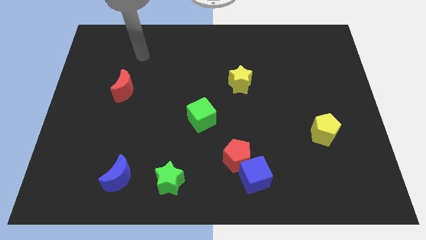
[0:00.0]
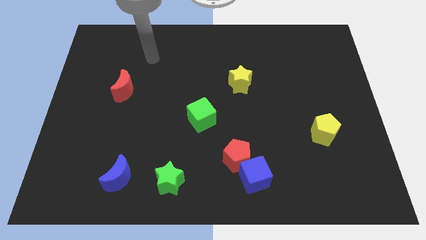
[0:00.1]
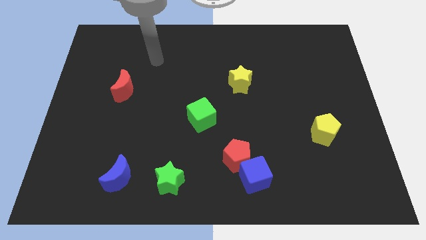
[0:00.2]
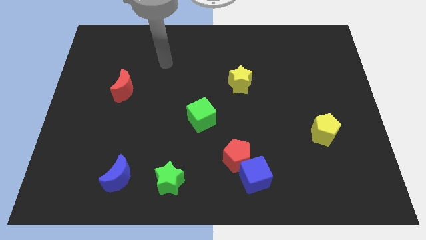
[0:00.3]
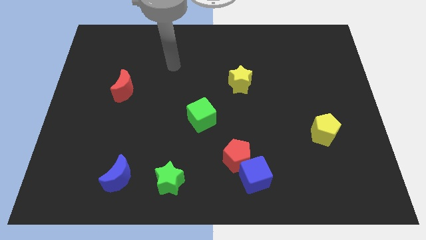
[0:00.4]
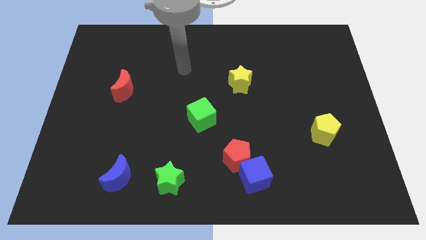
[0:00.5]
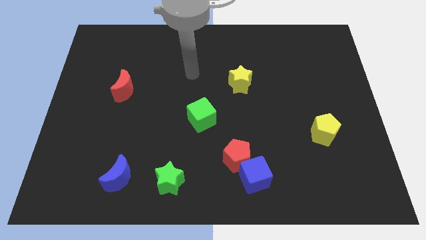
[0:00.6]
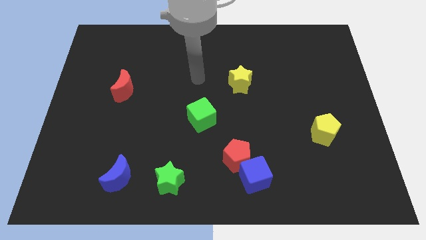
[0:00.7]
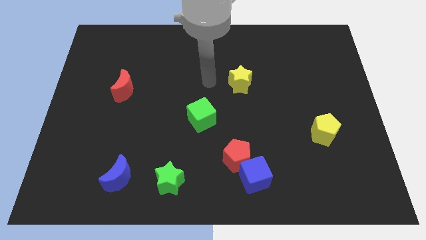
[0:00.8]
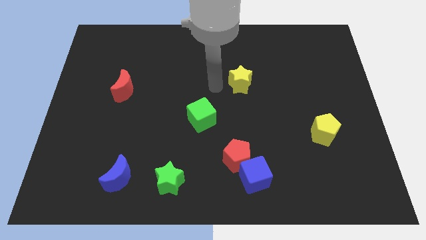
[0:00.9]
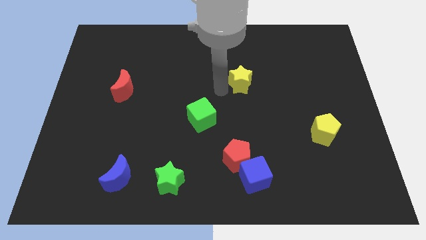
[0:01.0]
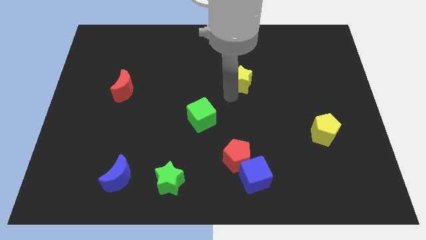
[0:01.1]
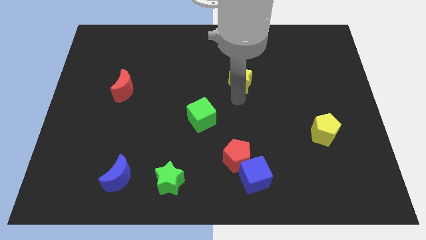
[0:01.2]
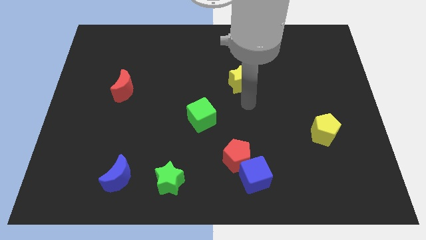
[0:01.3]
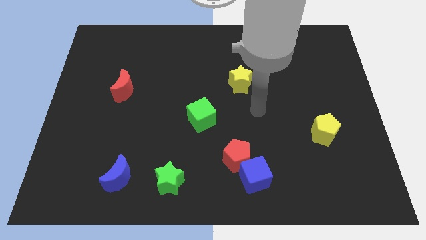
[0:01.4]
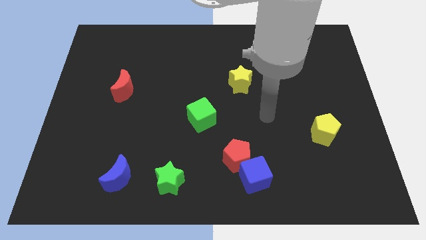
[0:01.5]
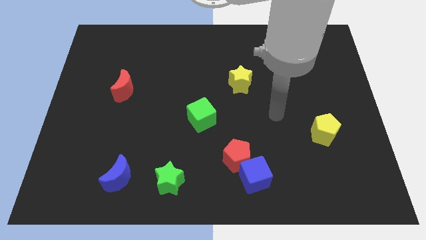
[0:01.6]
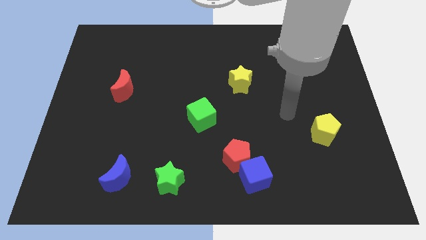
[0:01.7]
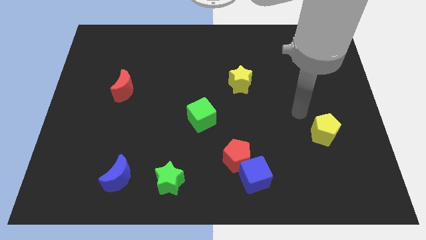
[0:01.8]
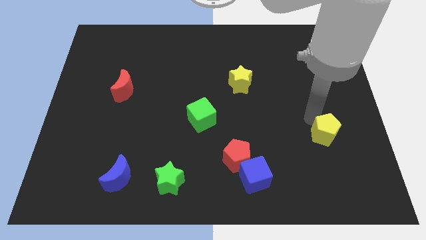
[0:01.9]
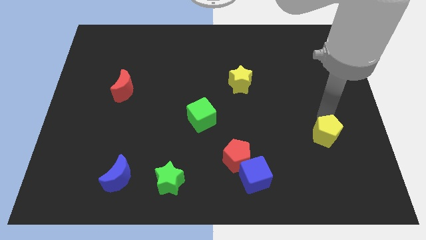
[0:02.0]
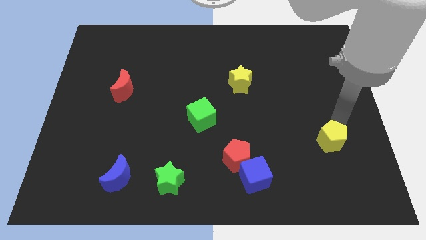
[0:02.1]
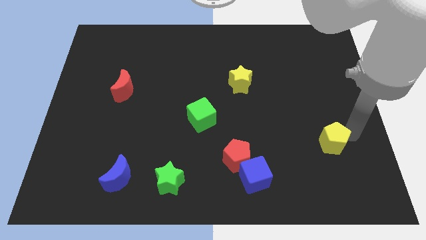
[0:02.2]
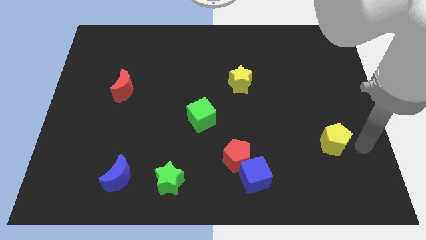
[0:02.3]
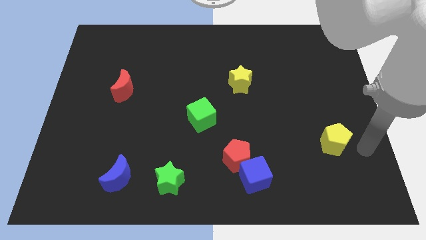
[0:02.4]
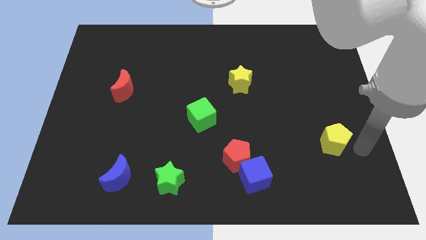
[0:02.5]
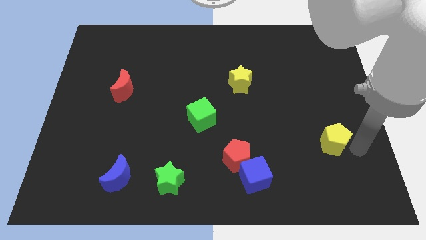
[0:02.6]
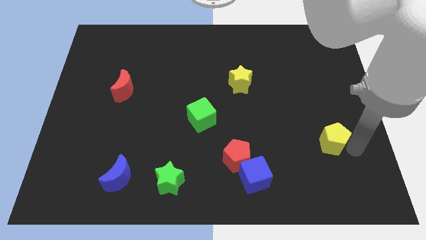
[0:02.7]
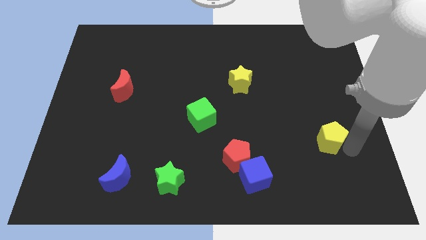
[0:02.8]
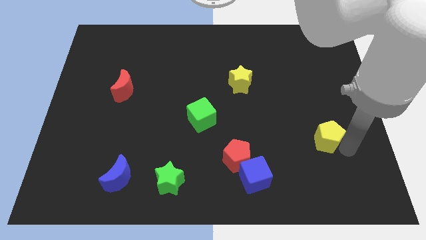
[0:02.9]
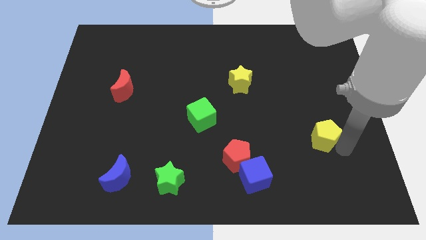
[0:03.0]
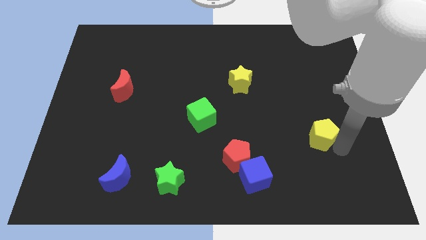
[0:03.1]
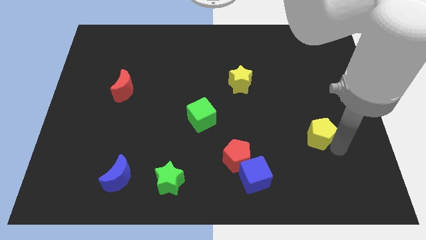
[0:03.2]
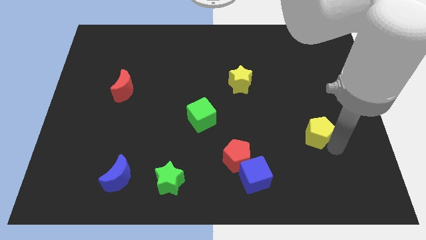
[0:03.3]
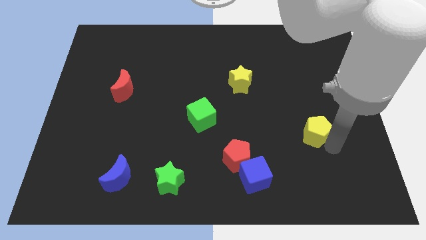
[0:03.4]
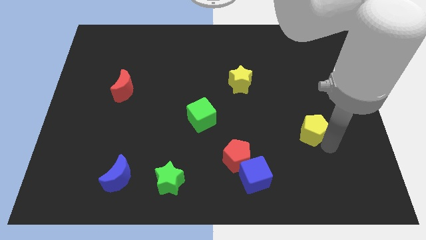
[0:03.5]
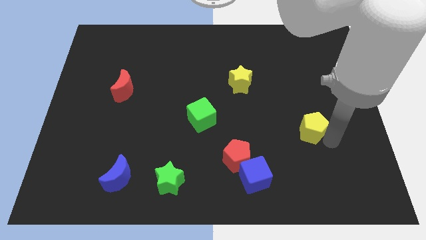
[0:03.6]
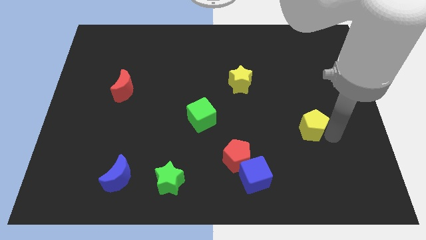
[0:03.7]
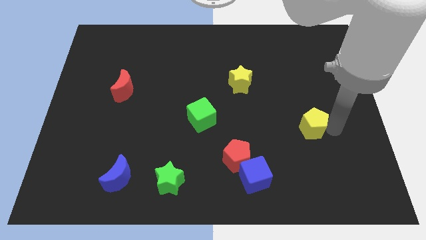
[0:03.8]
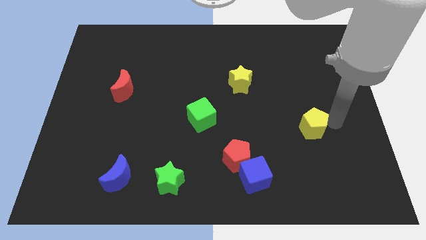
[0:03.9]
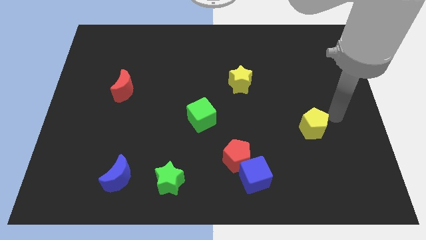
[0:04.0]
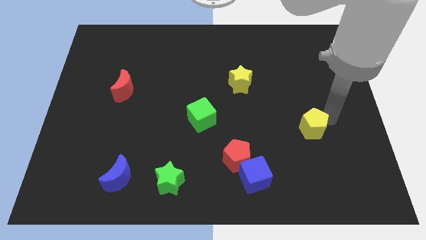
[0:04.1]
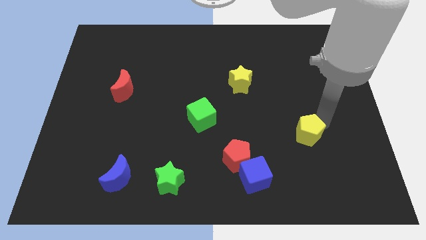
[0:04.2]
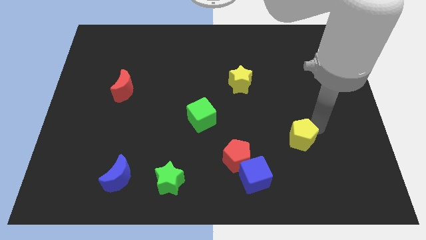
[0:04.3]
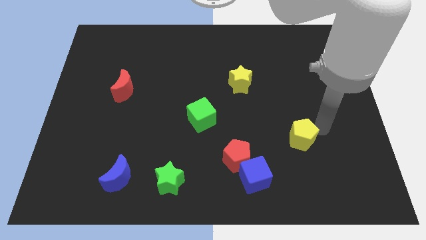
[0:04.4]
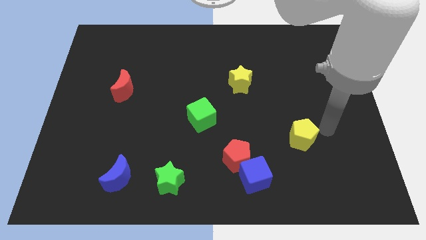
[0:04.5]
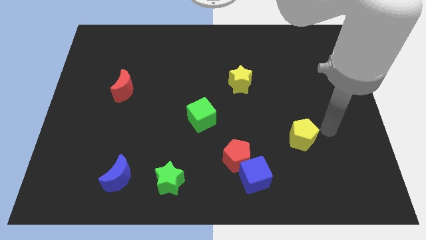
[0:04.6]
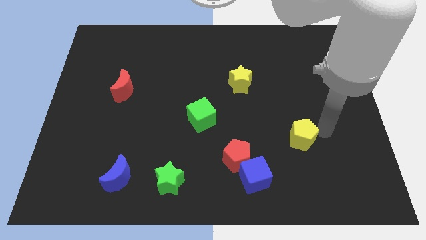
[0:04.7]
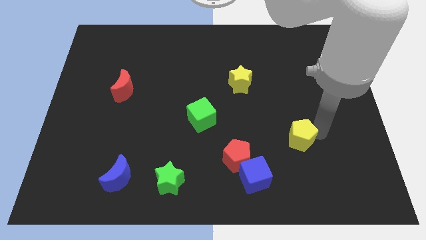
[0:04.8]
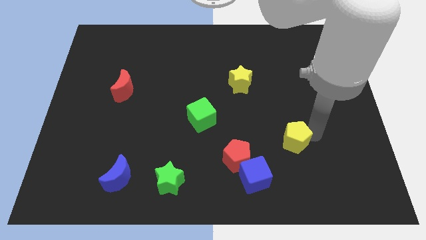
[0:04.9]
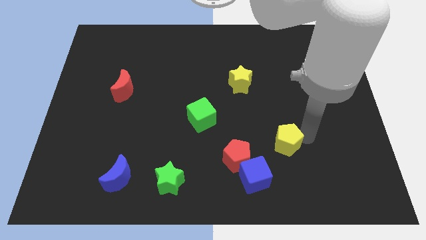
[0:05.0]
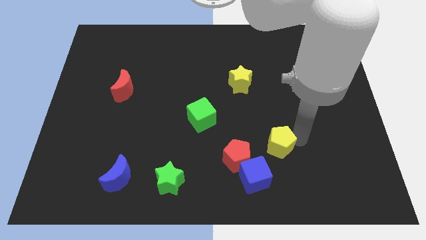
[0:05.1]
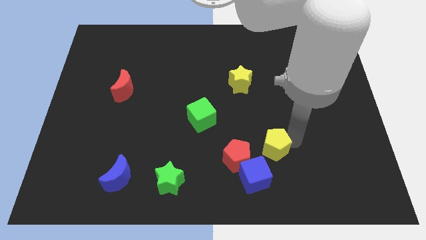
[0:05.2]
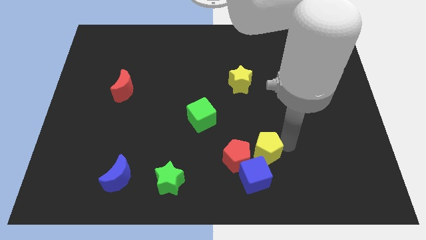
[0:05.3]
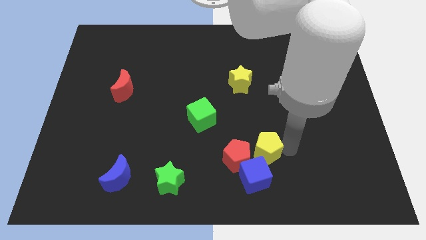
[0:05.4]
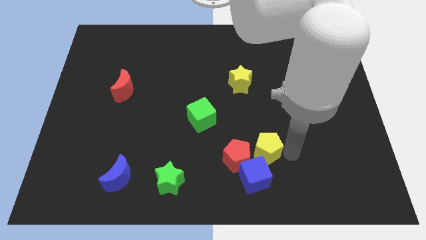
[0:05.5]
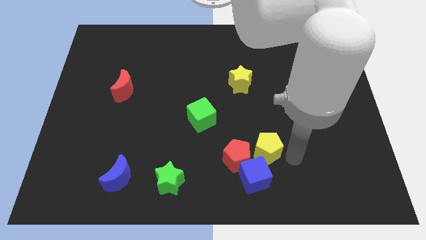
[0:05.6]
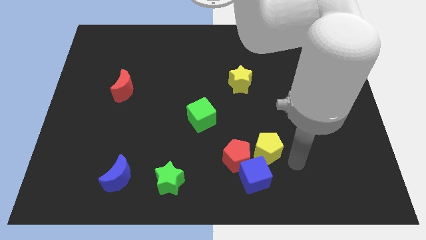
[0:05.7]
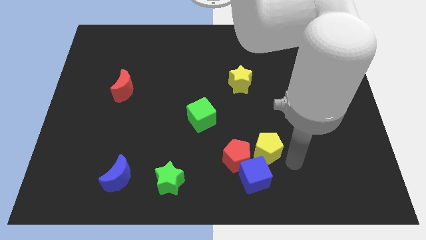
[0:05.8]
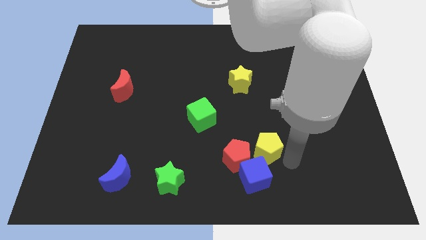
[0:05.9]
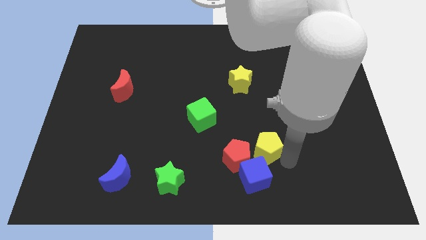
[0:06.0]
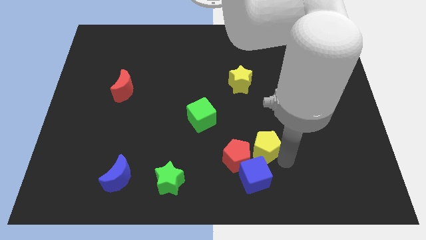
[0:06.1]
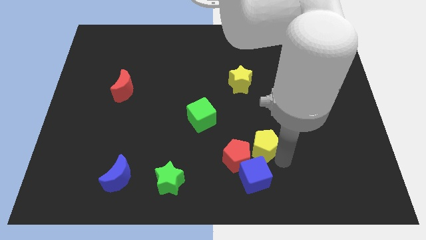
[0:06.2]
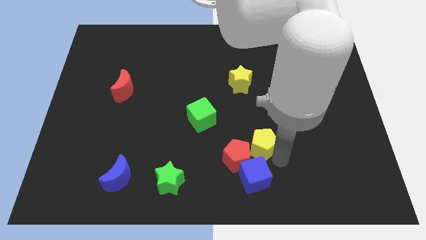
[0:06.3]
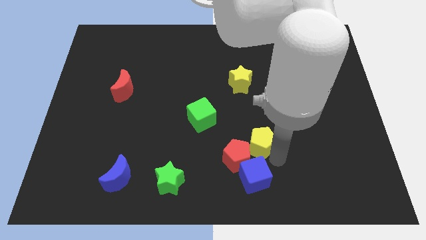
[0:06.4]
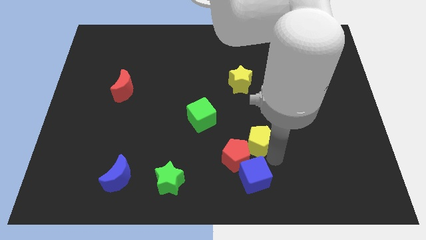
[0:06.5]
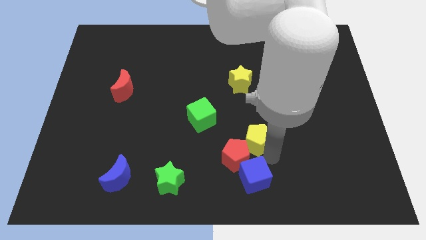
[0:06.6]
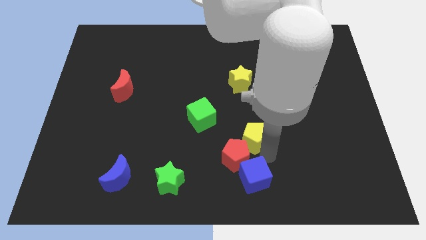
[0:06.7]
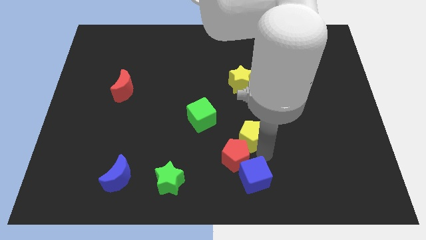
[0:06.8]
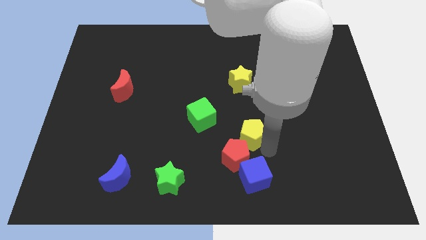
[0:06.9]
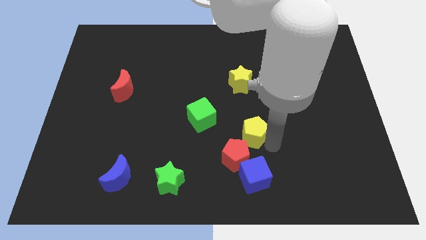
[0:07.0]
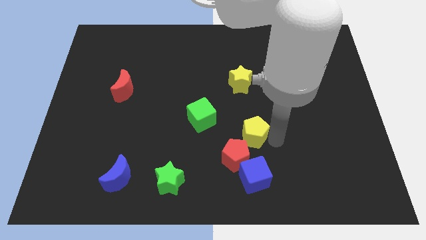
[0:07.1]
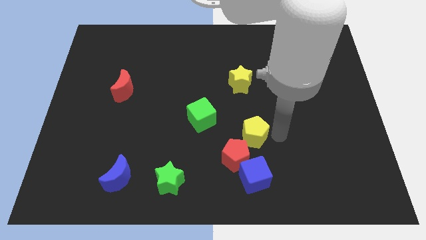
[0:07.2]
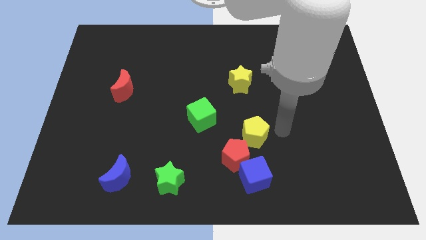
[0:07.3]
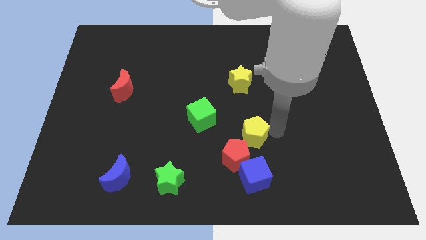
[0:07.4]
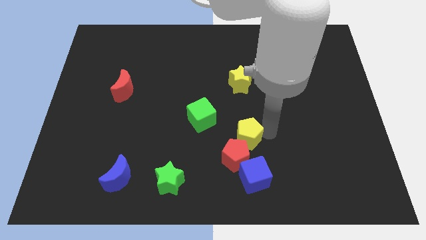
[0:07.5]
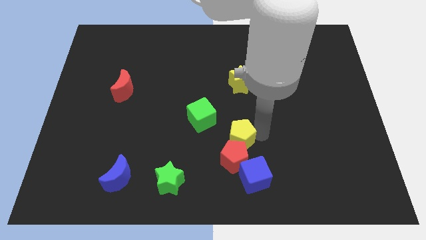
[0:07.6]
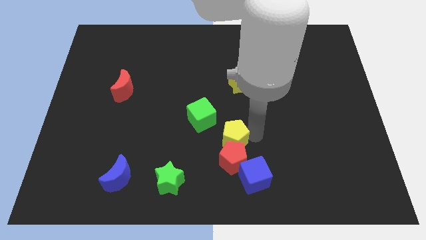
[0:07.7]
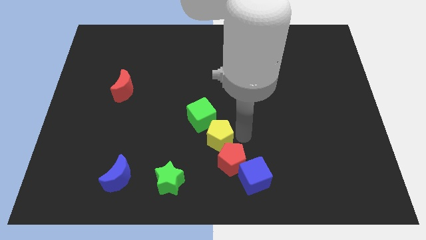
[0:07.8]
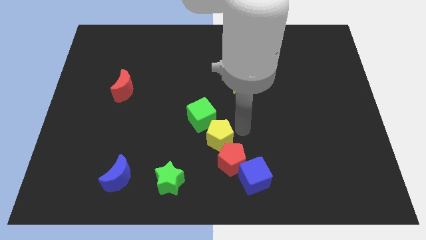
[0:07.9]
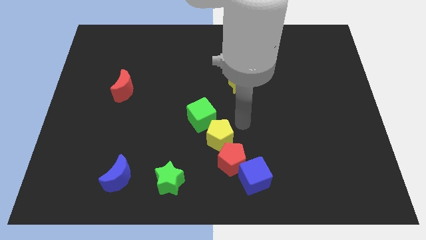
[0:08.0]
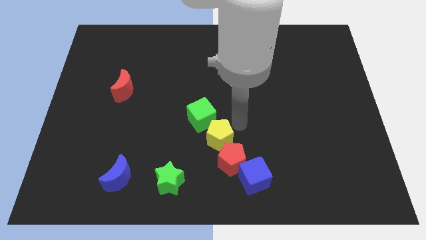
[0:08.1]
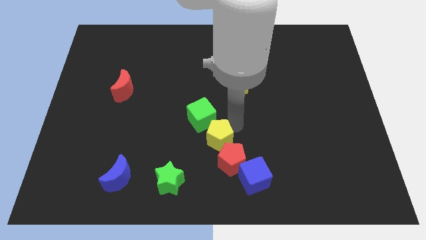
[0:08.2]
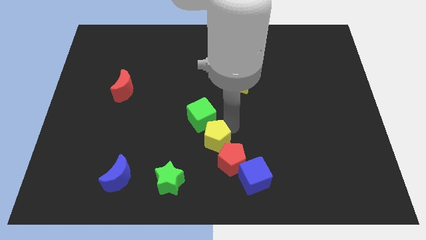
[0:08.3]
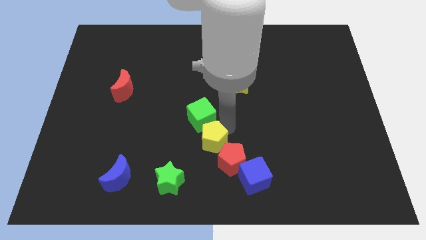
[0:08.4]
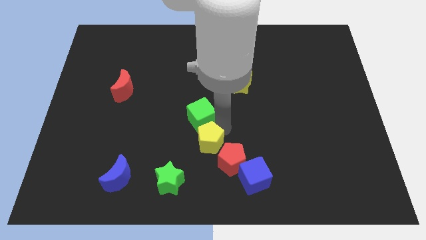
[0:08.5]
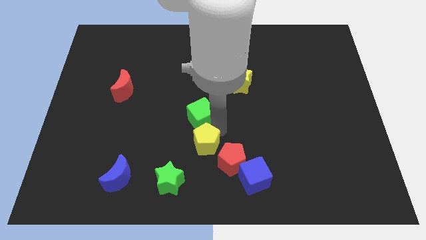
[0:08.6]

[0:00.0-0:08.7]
push the yellow pentagon left of the red pentagon
